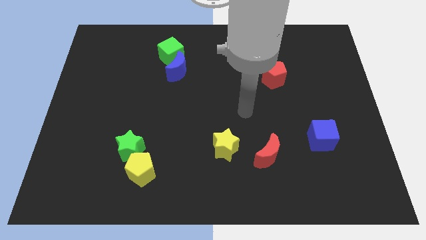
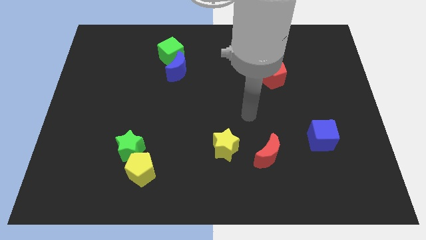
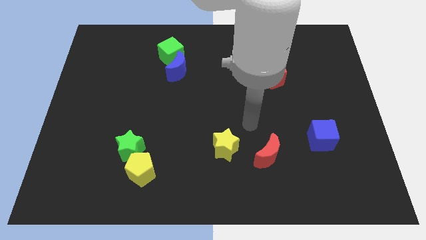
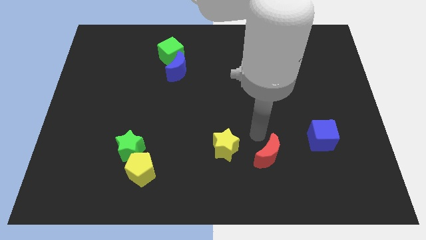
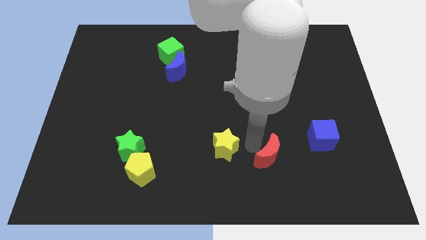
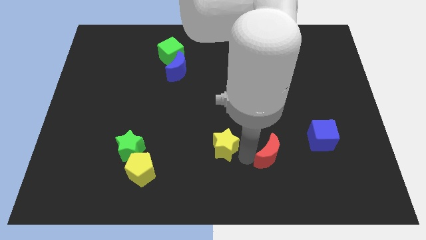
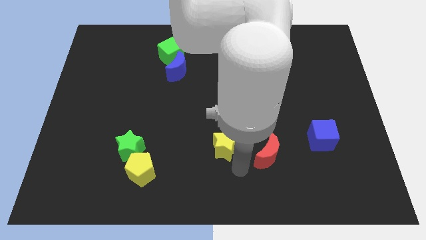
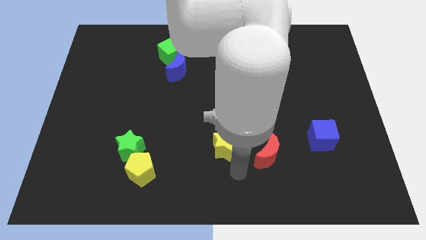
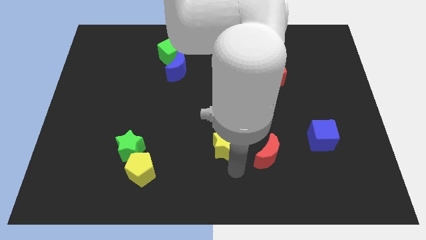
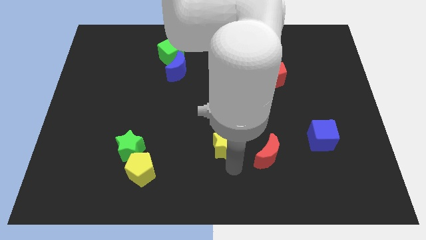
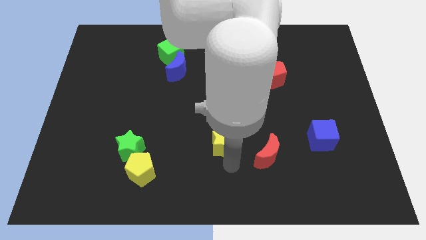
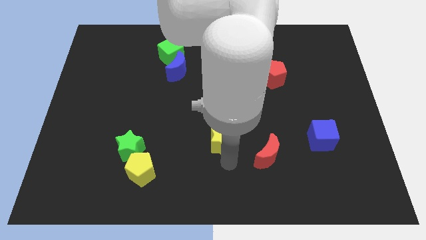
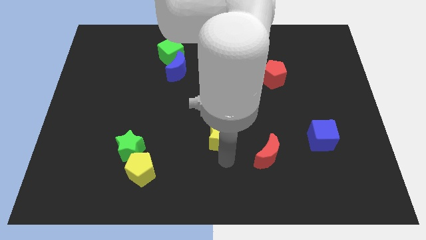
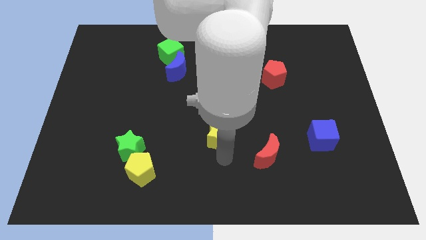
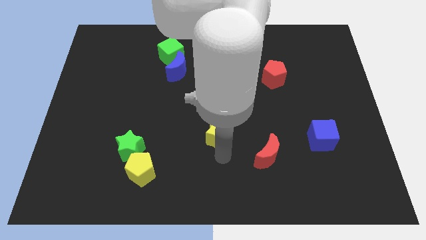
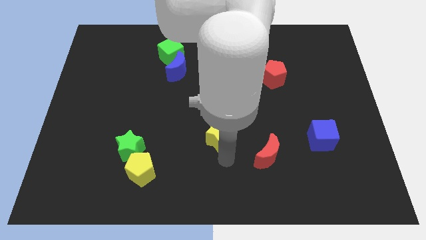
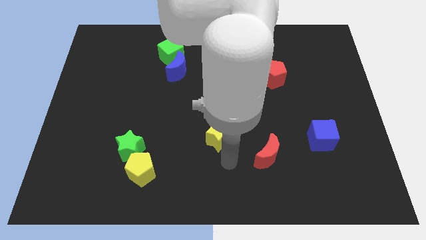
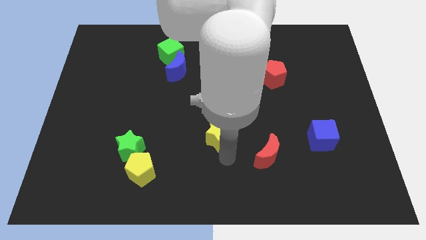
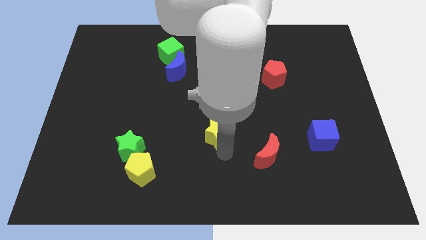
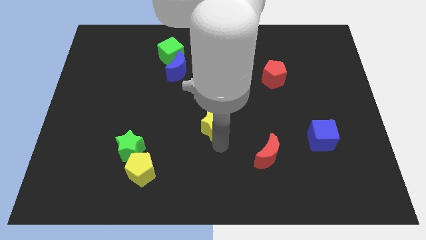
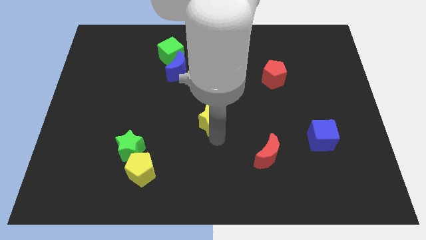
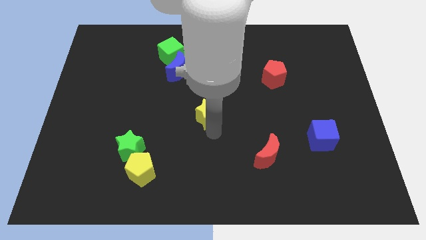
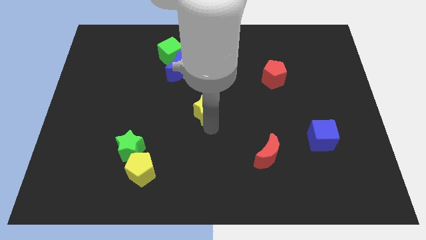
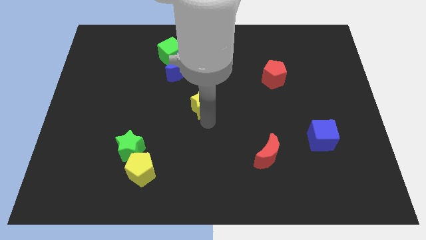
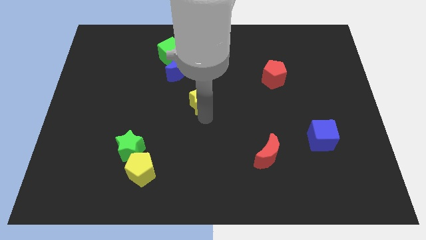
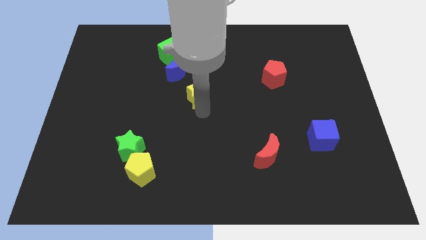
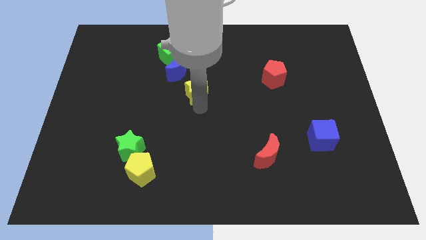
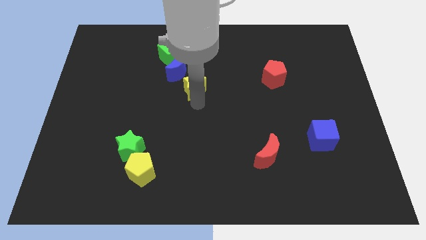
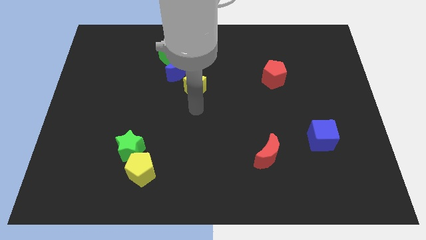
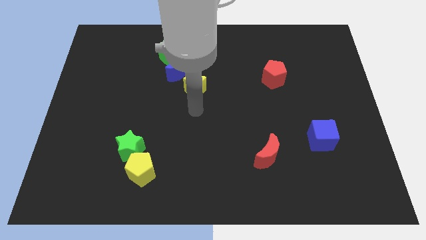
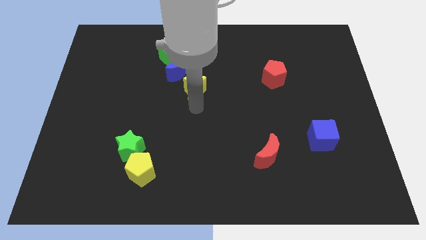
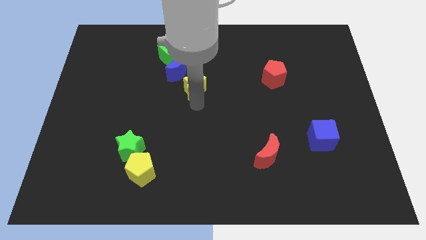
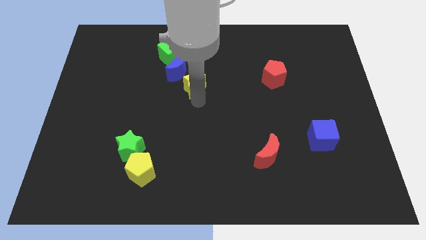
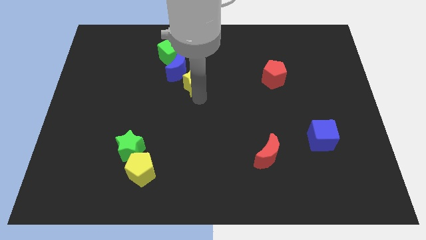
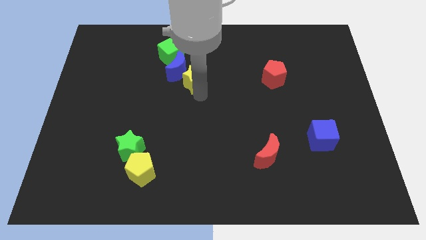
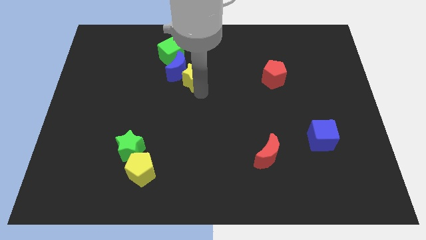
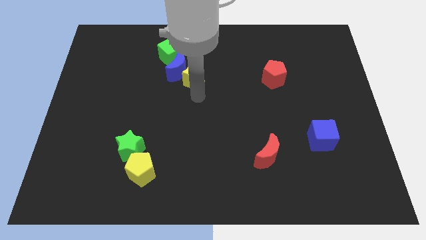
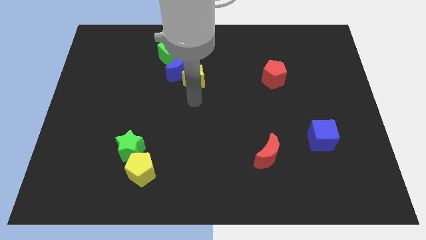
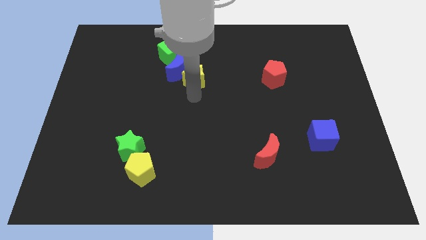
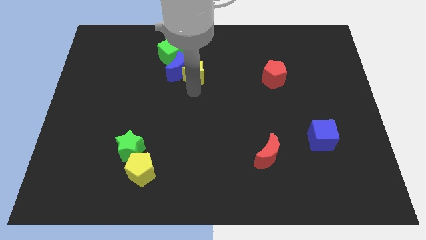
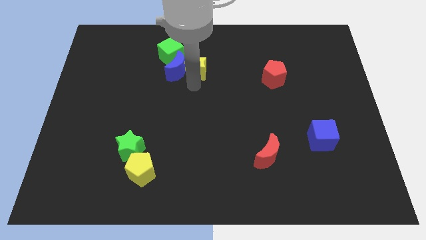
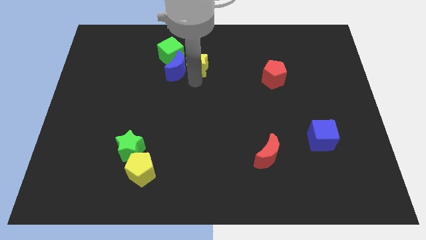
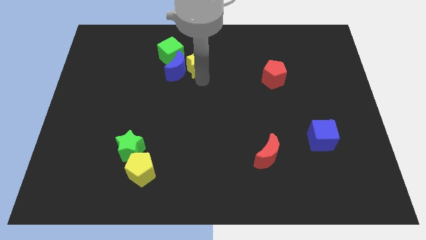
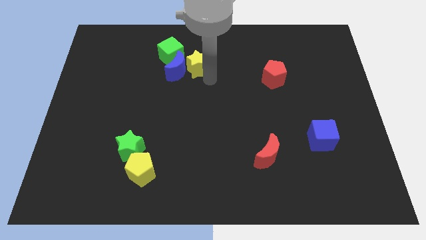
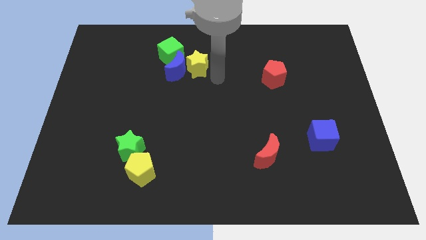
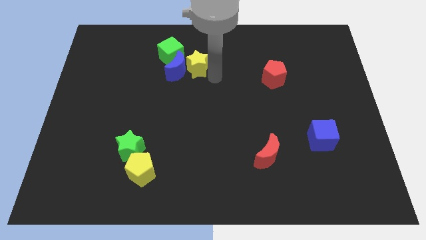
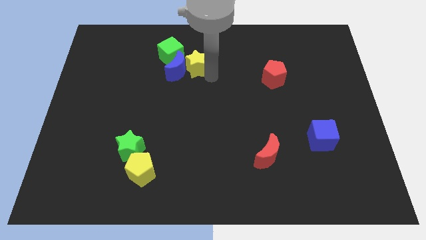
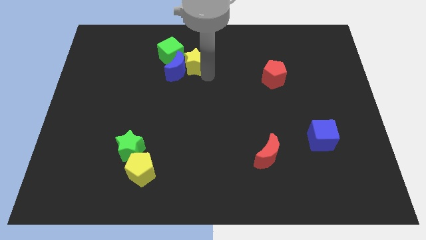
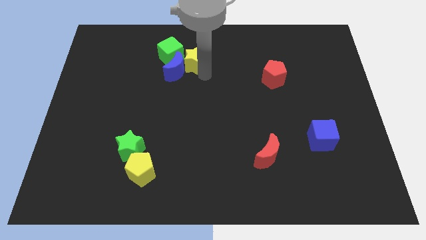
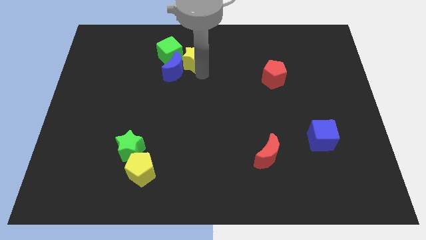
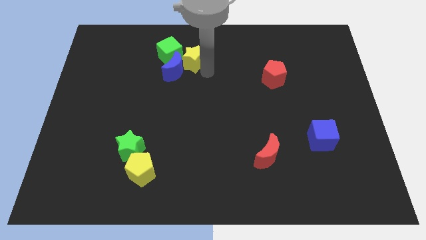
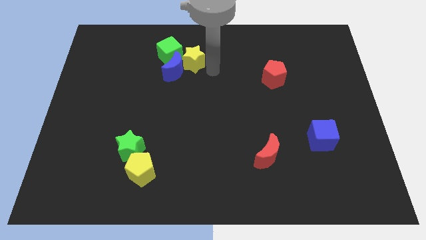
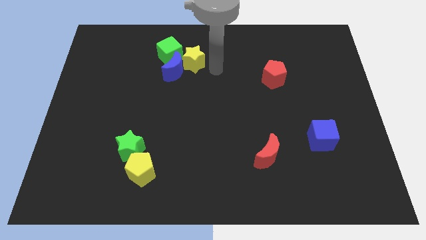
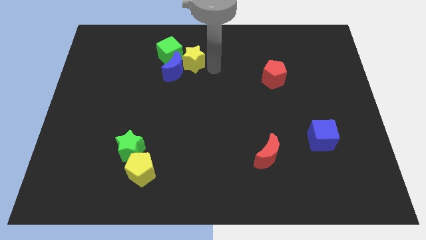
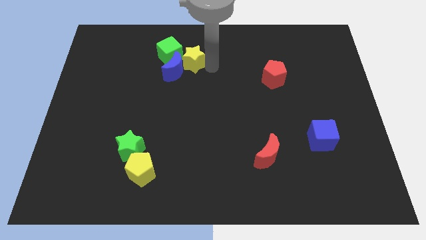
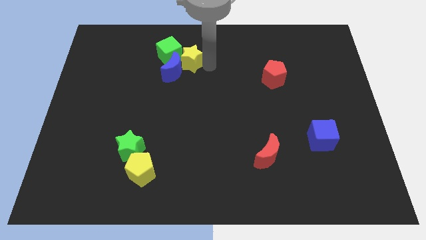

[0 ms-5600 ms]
push the yellow star to the green cube

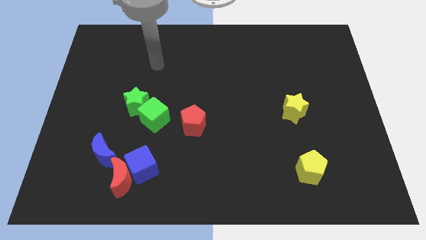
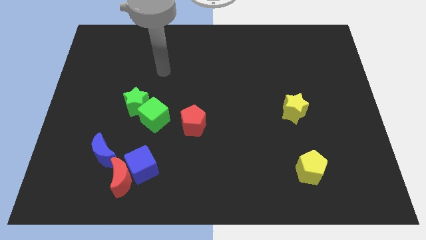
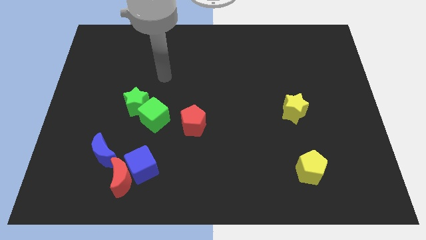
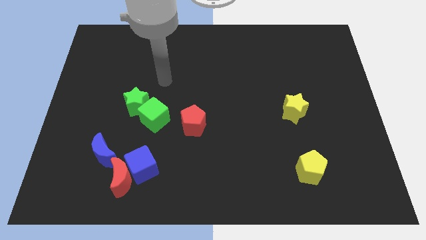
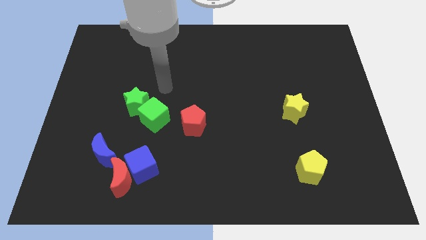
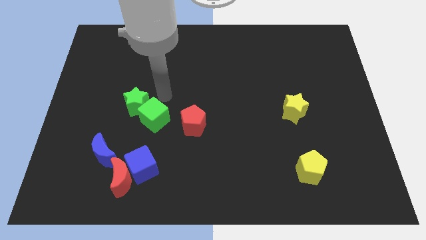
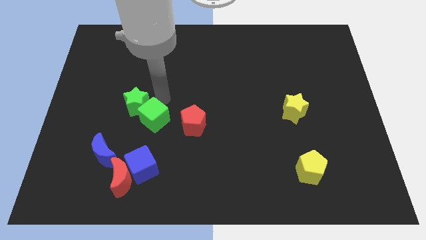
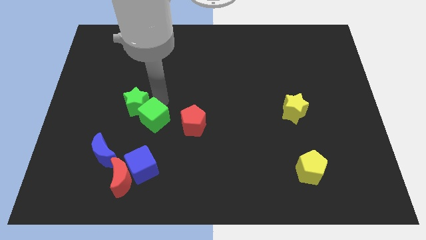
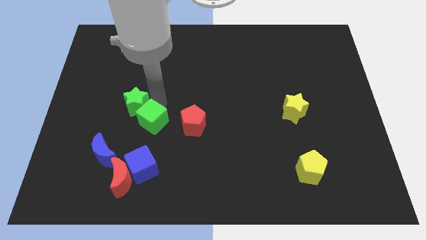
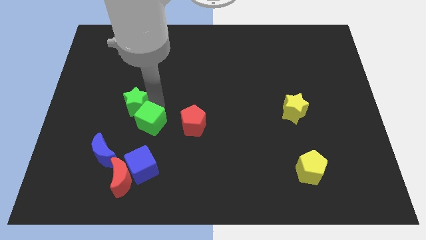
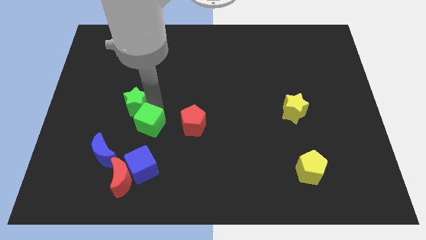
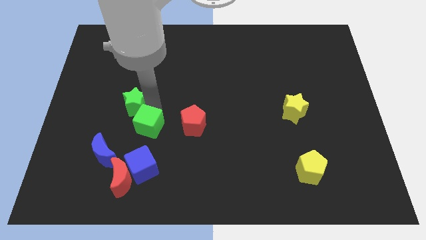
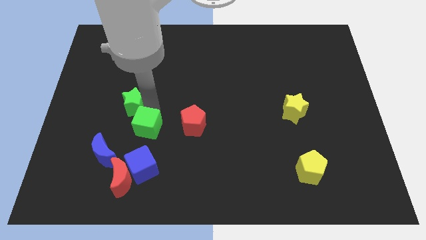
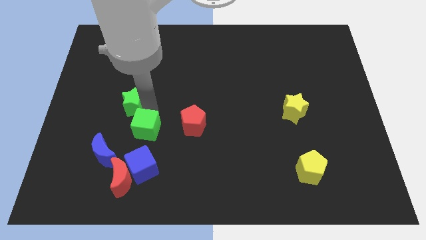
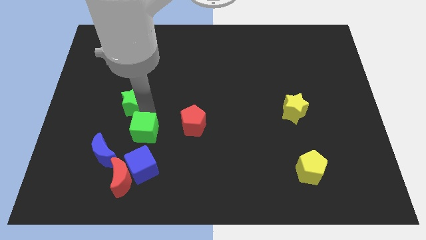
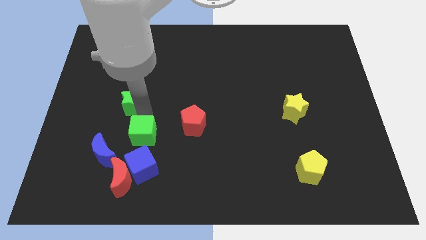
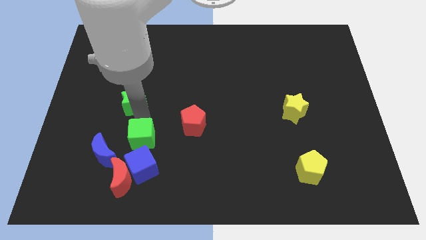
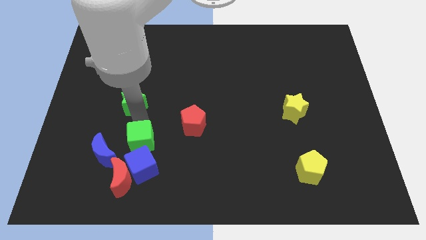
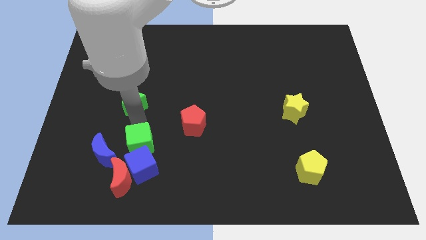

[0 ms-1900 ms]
push the green cube to the blue cube
